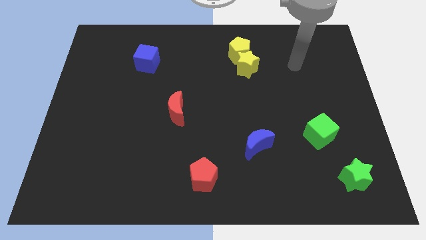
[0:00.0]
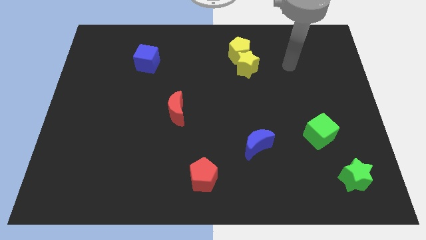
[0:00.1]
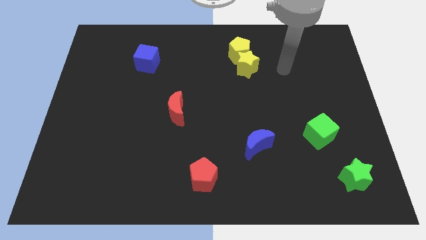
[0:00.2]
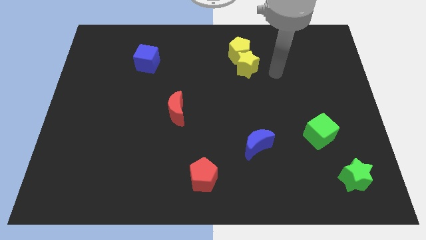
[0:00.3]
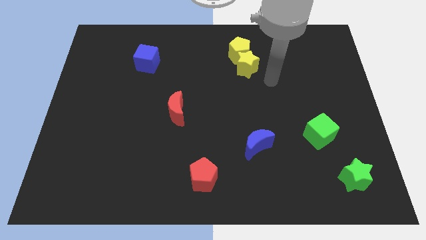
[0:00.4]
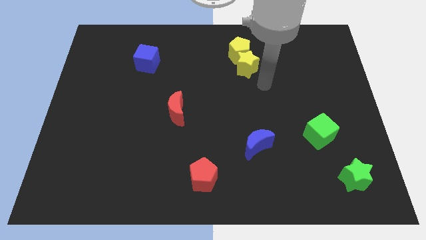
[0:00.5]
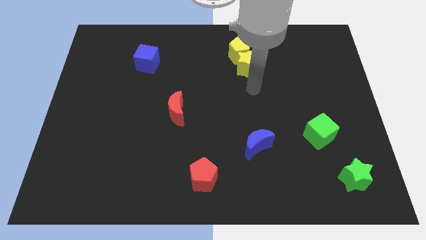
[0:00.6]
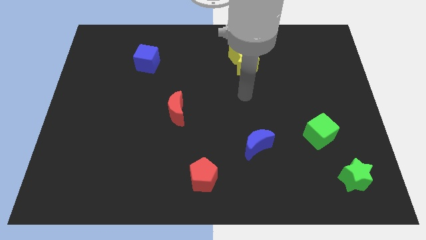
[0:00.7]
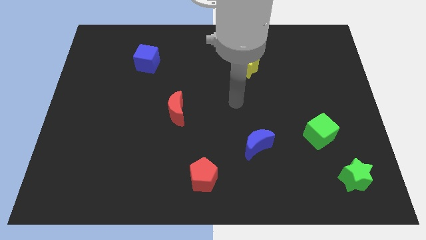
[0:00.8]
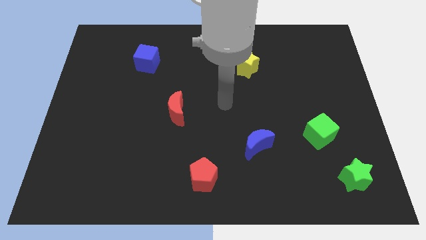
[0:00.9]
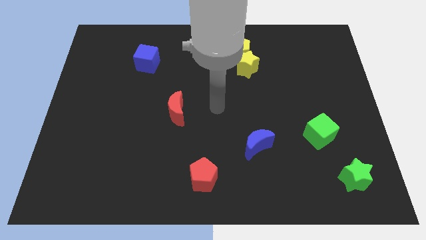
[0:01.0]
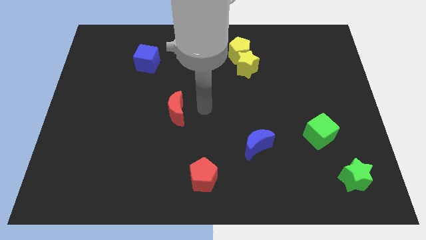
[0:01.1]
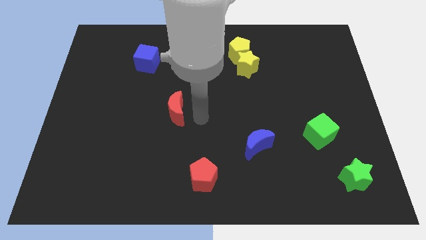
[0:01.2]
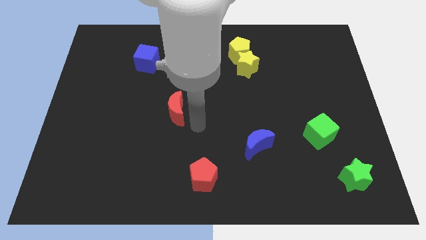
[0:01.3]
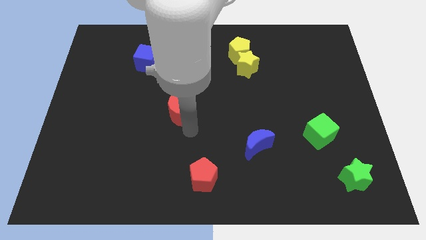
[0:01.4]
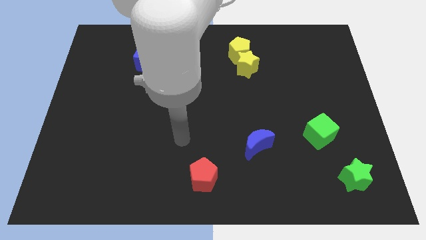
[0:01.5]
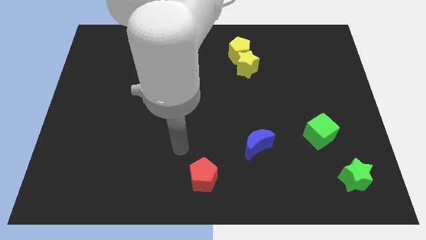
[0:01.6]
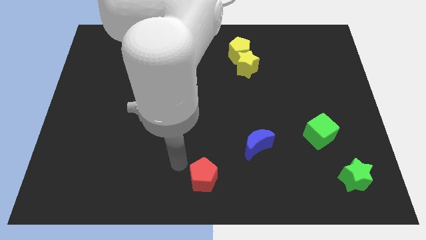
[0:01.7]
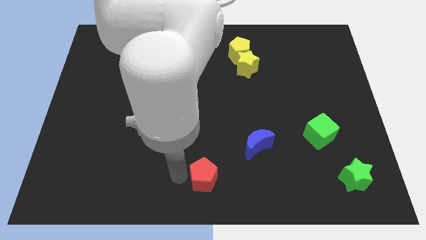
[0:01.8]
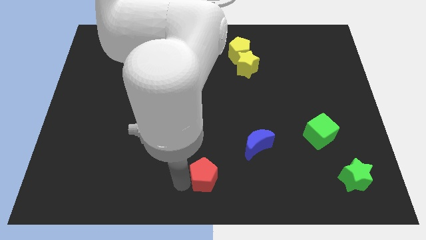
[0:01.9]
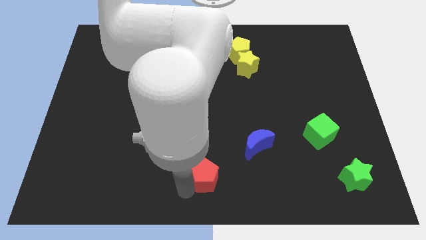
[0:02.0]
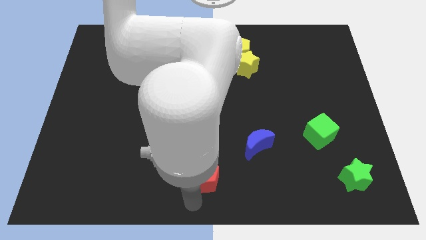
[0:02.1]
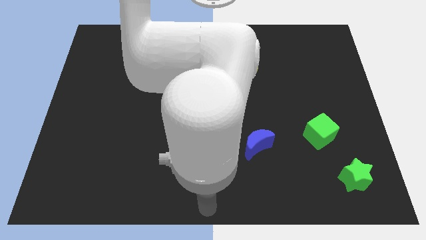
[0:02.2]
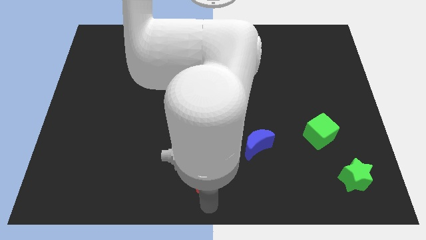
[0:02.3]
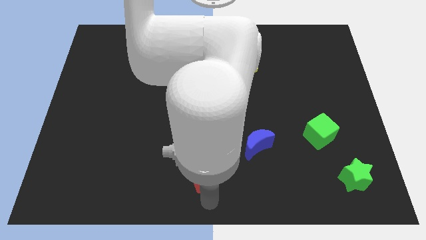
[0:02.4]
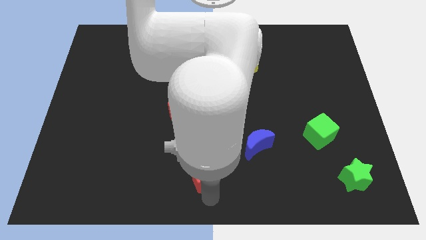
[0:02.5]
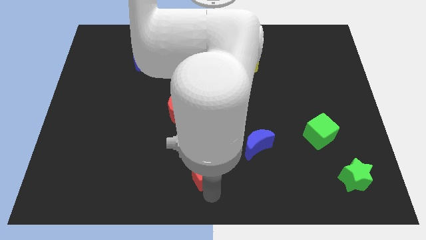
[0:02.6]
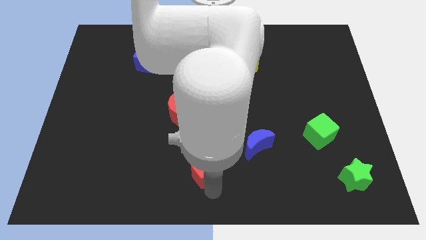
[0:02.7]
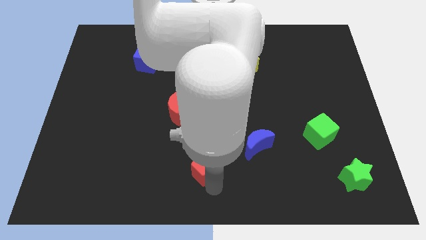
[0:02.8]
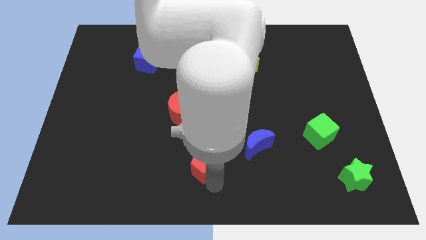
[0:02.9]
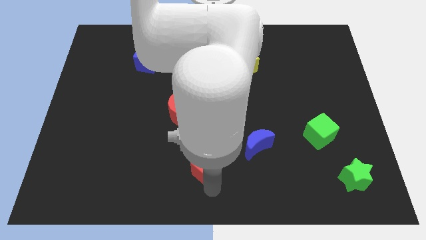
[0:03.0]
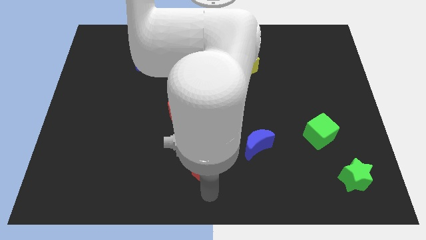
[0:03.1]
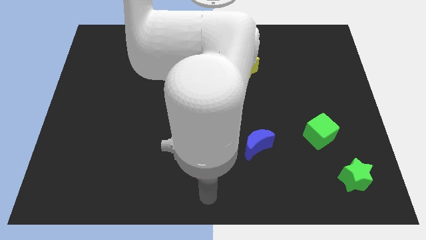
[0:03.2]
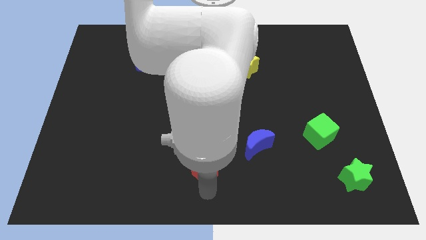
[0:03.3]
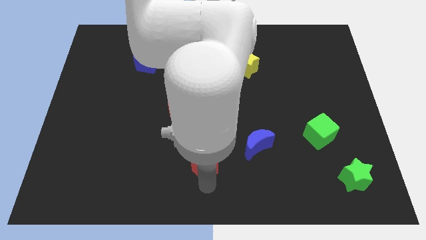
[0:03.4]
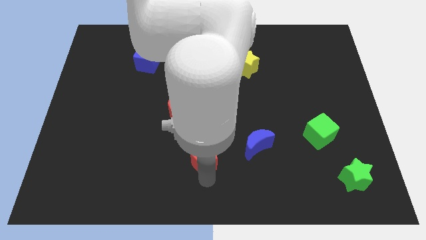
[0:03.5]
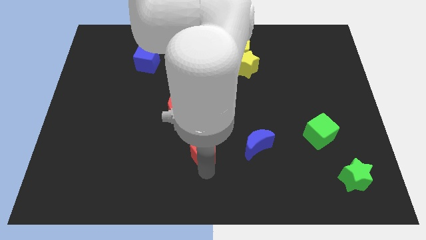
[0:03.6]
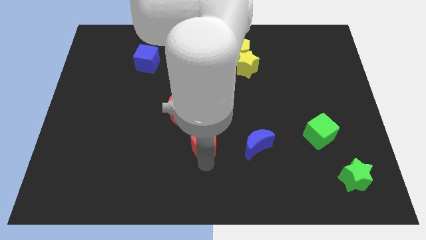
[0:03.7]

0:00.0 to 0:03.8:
slightly push the red pentagon upwards

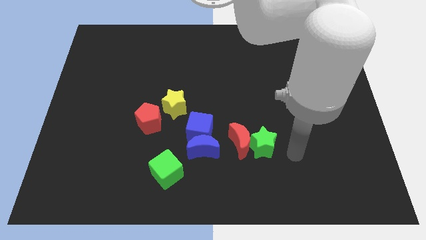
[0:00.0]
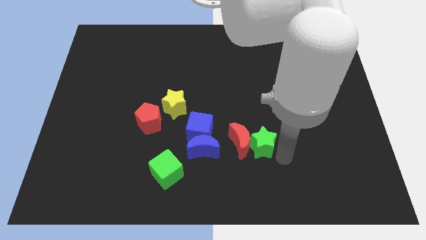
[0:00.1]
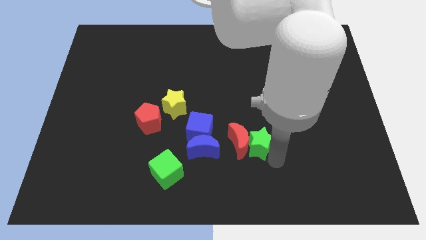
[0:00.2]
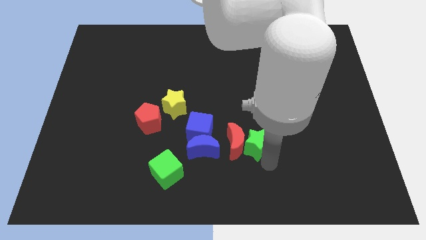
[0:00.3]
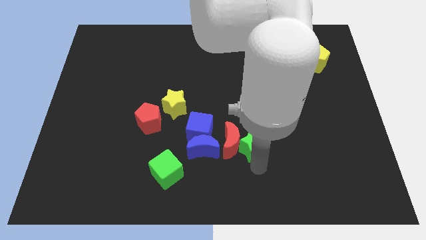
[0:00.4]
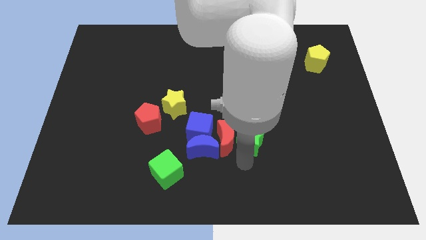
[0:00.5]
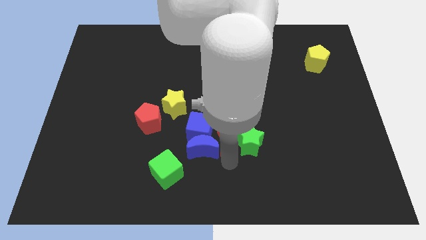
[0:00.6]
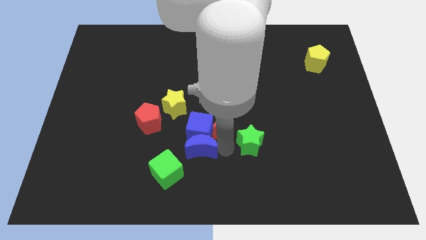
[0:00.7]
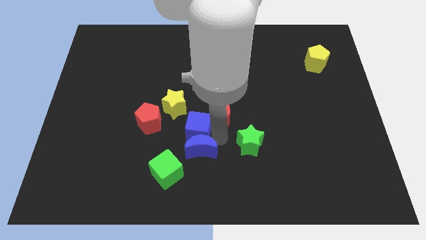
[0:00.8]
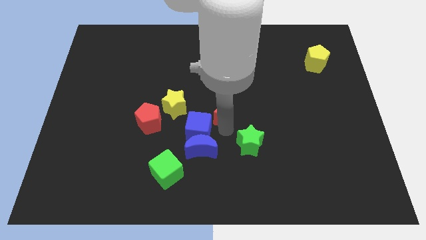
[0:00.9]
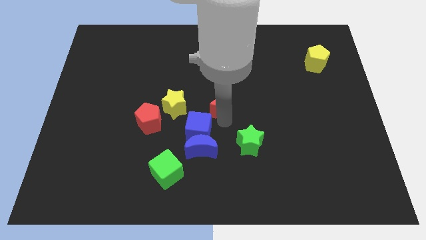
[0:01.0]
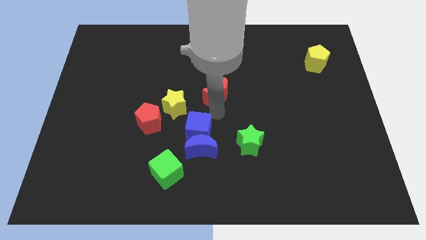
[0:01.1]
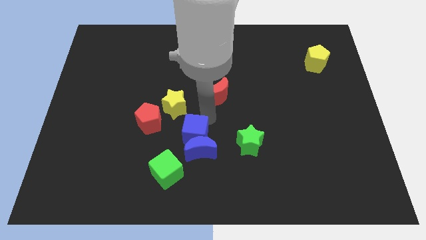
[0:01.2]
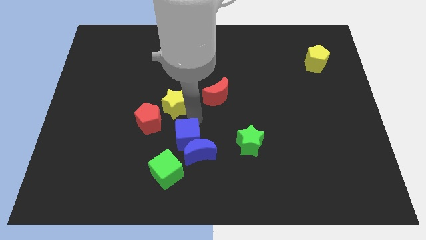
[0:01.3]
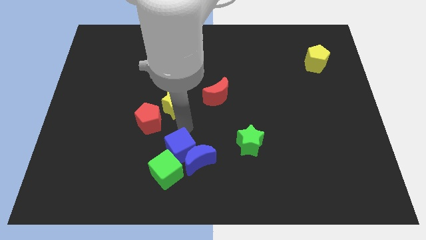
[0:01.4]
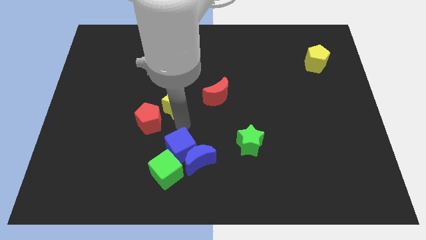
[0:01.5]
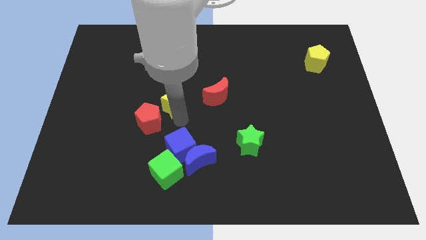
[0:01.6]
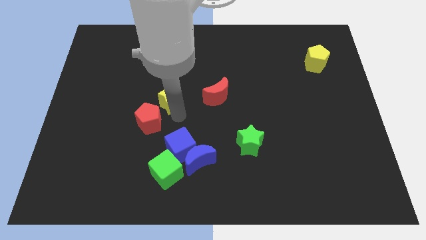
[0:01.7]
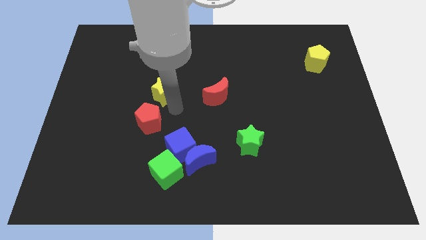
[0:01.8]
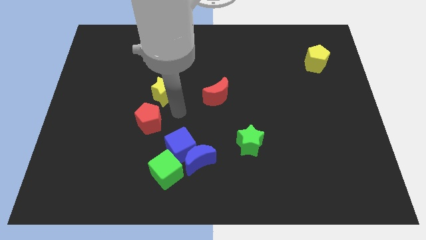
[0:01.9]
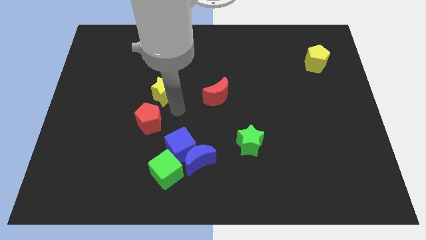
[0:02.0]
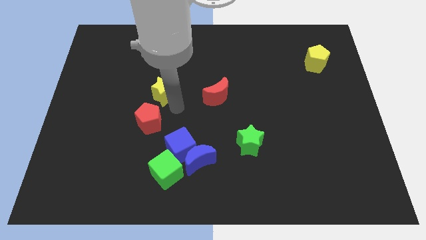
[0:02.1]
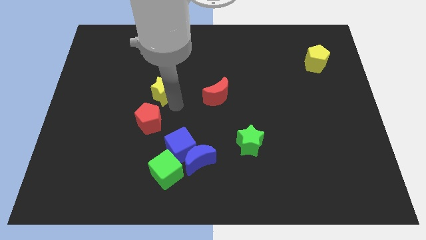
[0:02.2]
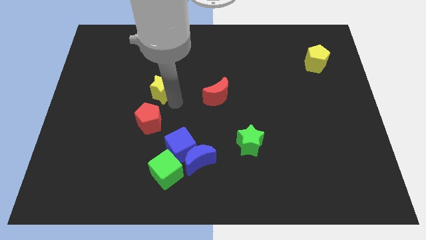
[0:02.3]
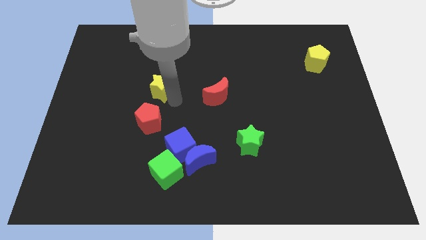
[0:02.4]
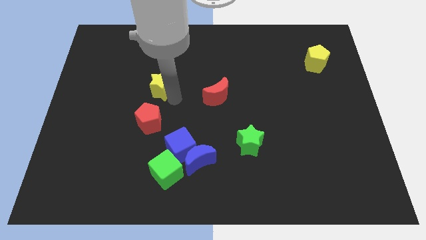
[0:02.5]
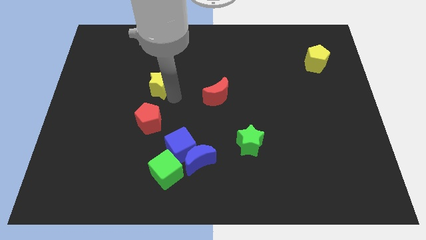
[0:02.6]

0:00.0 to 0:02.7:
move the yellow star a bit diagonally up and left

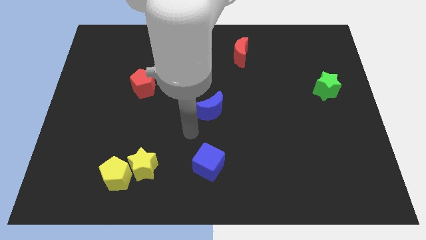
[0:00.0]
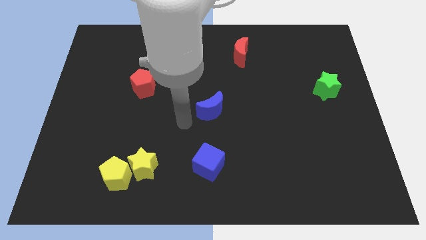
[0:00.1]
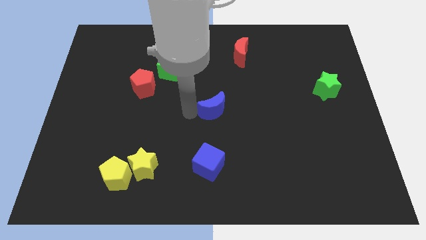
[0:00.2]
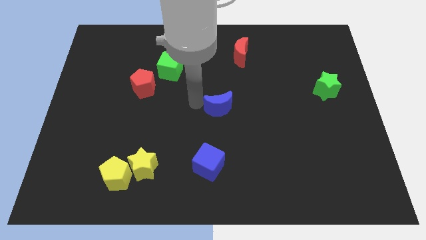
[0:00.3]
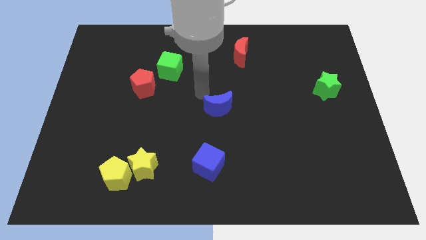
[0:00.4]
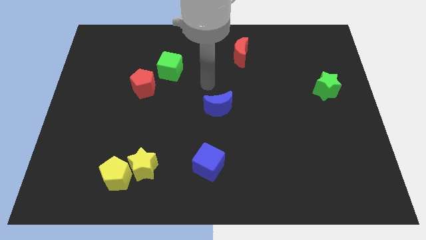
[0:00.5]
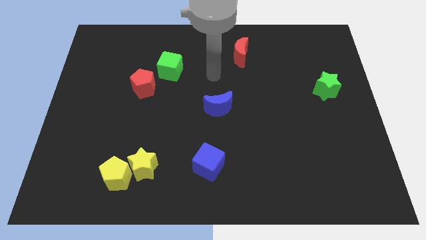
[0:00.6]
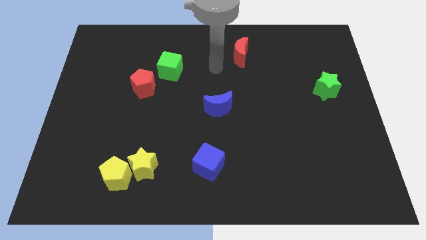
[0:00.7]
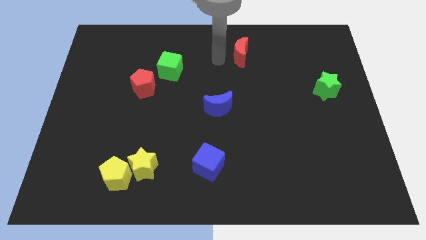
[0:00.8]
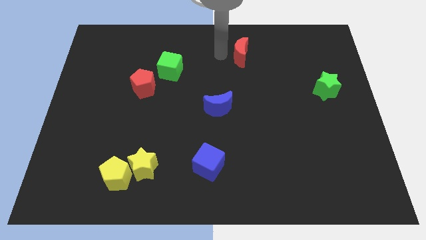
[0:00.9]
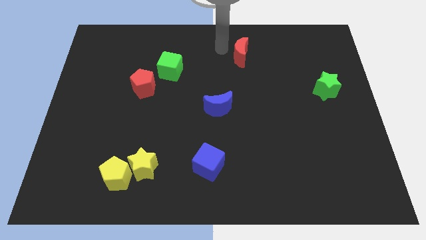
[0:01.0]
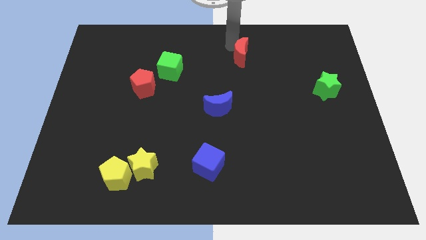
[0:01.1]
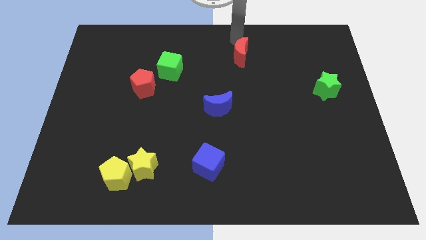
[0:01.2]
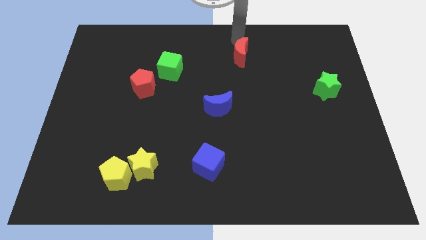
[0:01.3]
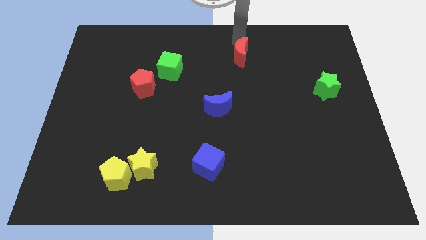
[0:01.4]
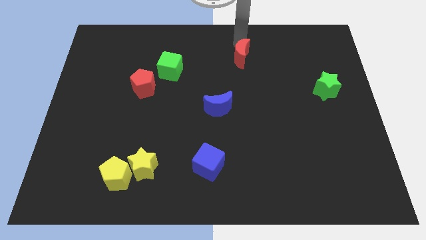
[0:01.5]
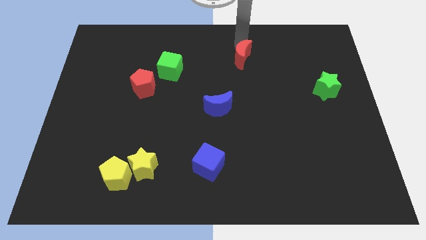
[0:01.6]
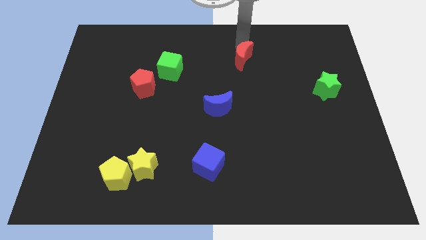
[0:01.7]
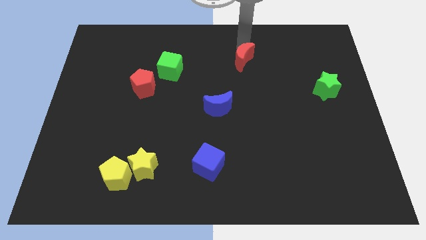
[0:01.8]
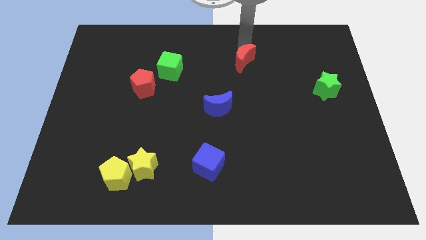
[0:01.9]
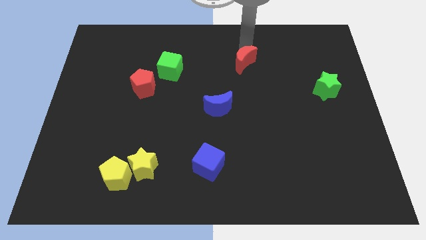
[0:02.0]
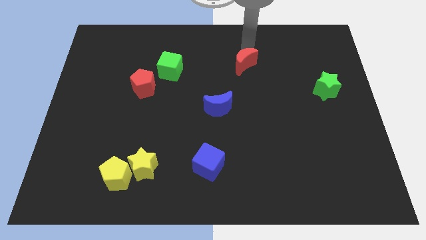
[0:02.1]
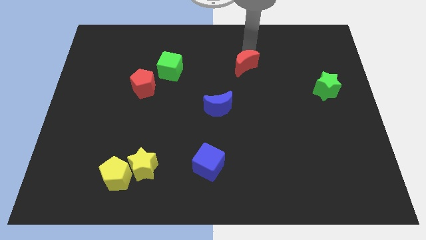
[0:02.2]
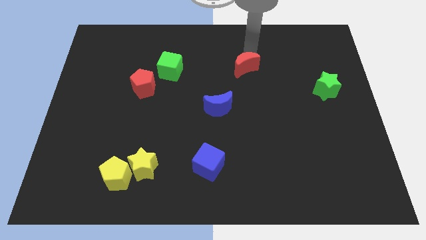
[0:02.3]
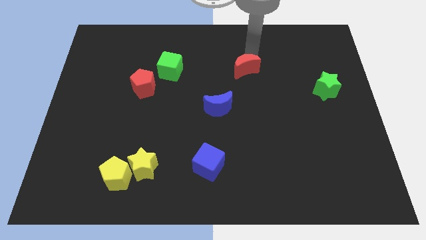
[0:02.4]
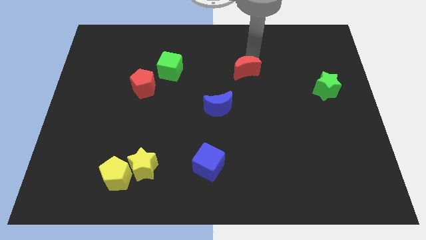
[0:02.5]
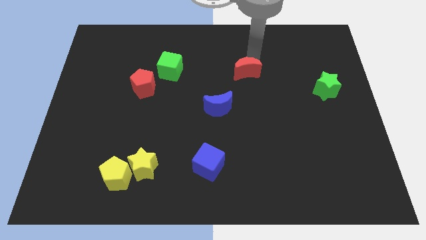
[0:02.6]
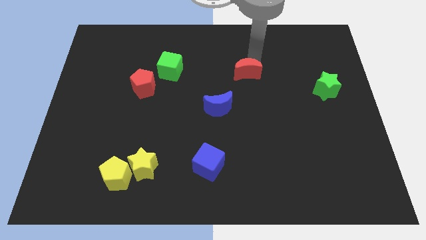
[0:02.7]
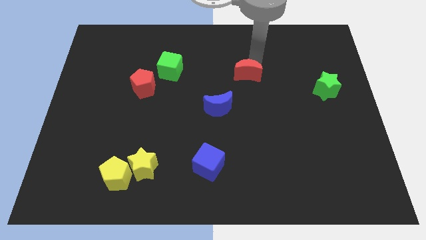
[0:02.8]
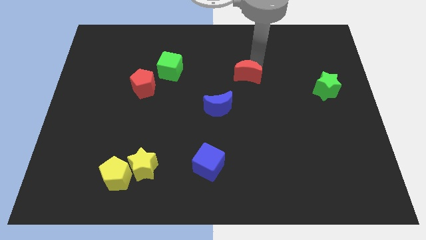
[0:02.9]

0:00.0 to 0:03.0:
slide the red moon down somewhat
